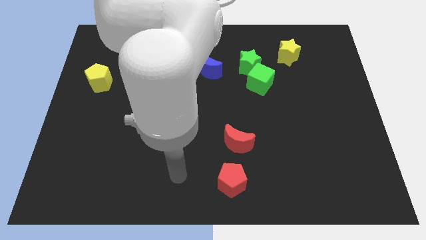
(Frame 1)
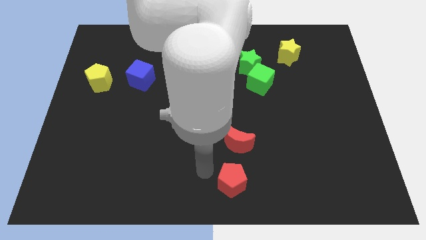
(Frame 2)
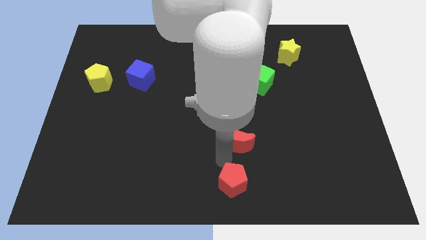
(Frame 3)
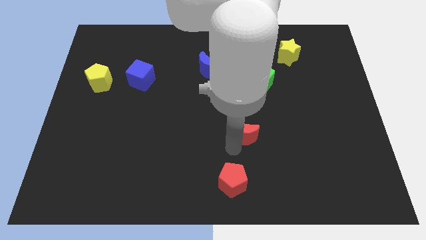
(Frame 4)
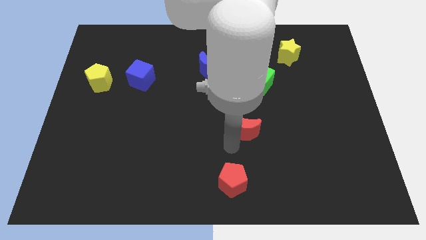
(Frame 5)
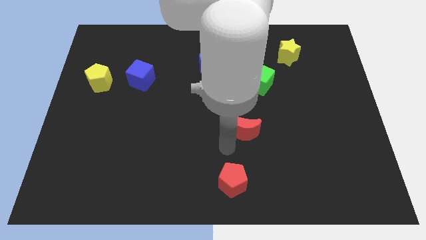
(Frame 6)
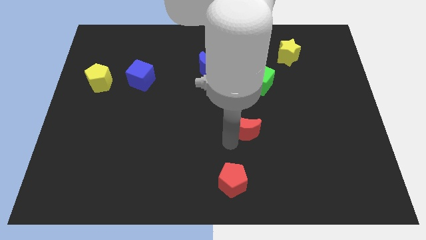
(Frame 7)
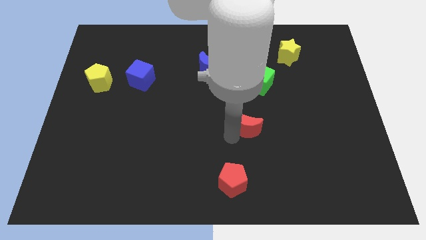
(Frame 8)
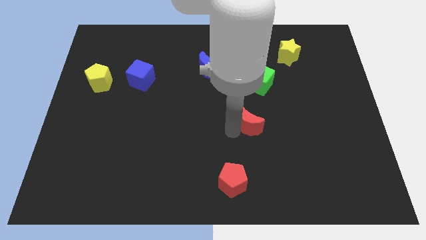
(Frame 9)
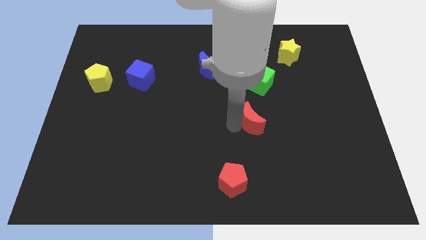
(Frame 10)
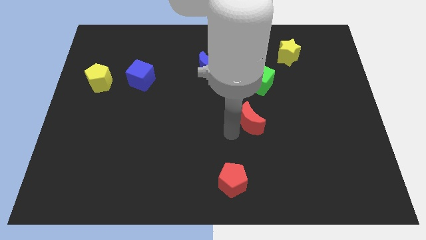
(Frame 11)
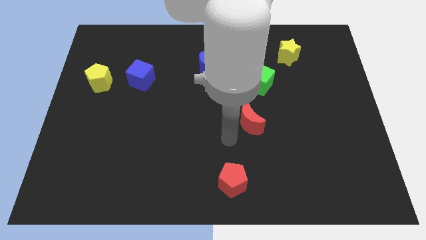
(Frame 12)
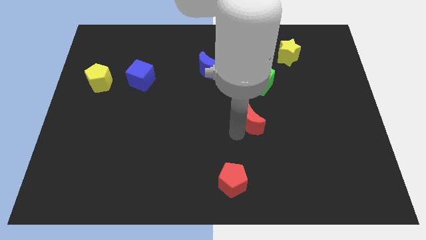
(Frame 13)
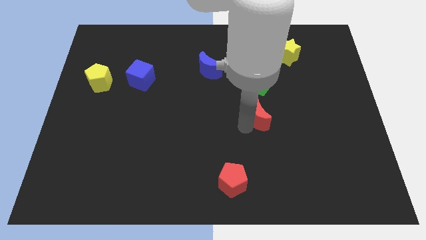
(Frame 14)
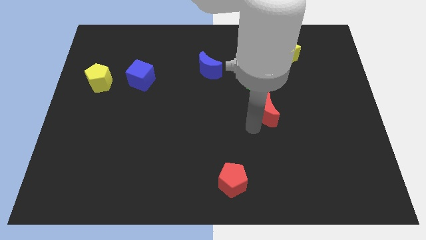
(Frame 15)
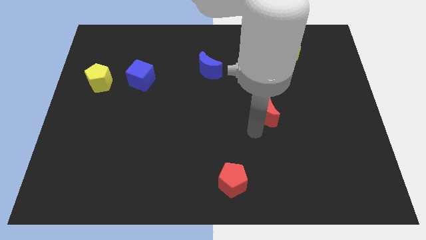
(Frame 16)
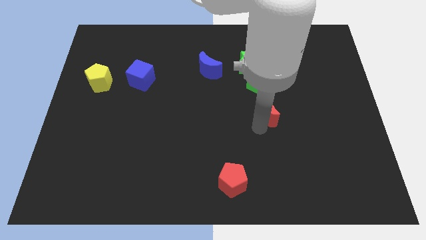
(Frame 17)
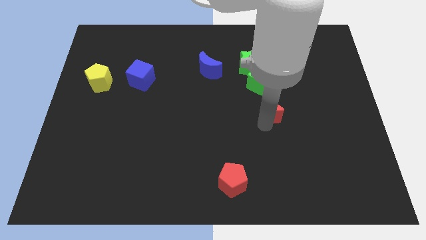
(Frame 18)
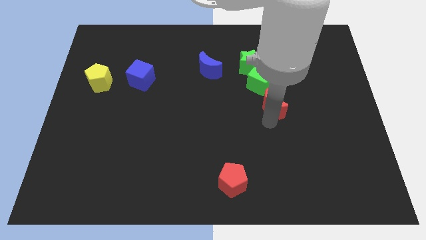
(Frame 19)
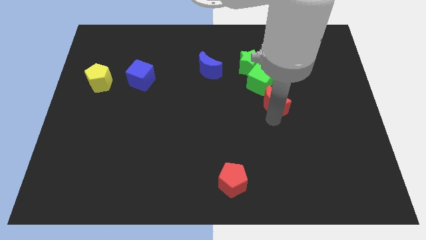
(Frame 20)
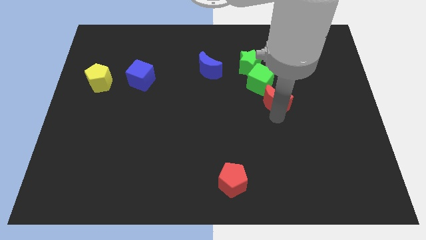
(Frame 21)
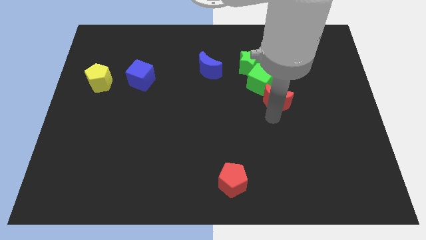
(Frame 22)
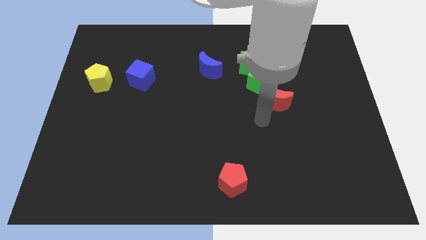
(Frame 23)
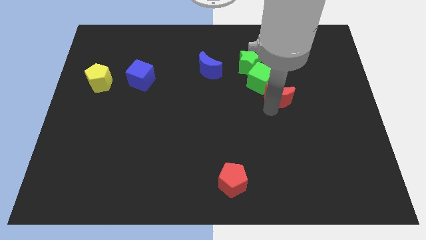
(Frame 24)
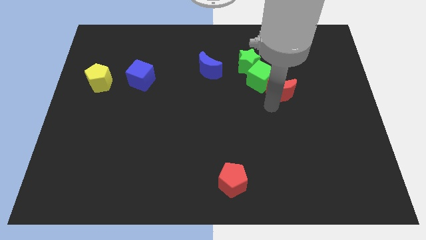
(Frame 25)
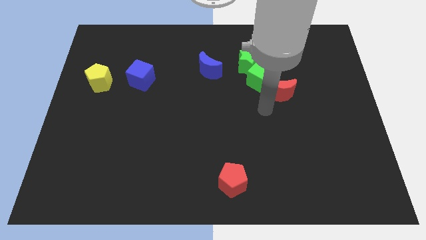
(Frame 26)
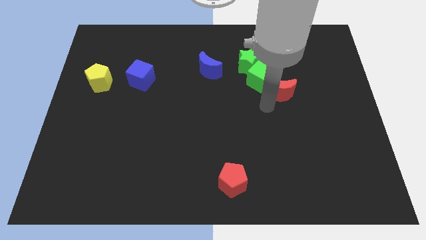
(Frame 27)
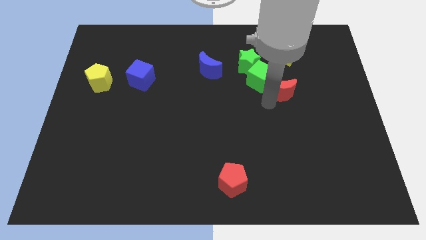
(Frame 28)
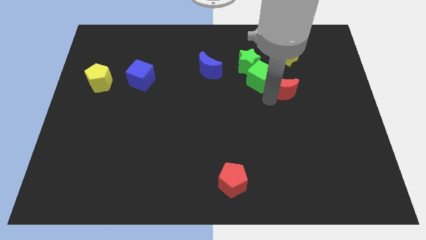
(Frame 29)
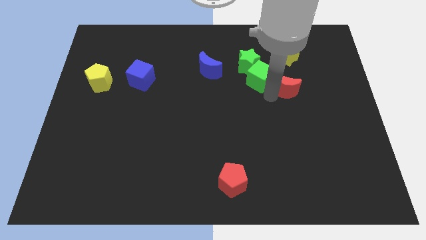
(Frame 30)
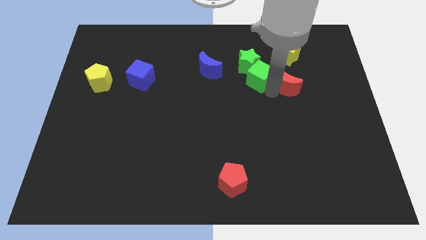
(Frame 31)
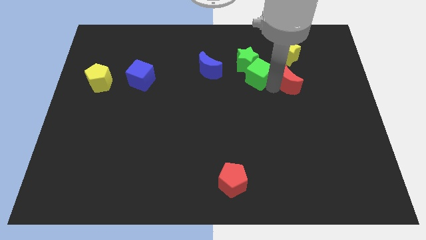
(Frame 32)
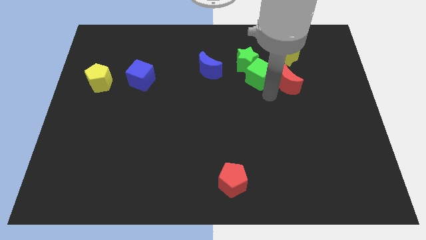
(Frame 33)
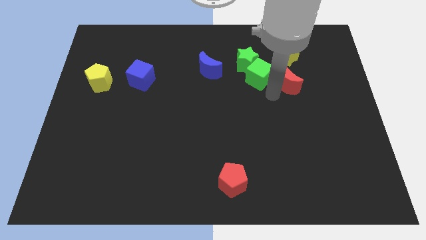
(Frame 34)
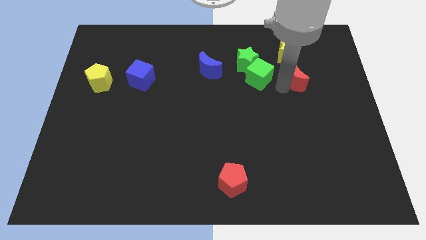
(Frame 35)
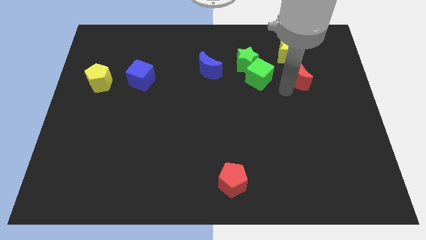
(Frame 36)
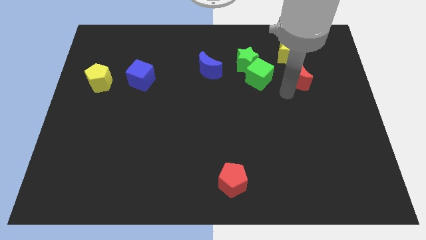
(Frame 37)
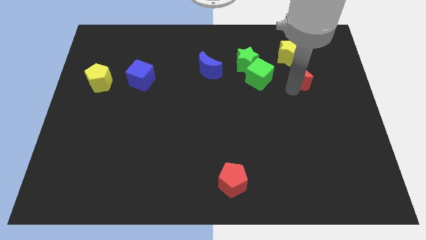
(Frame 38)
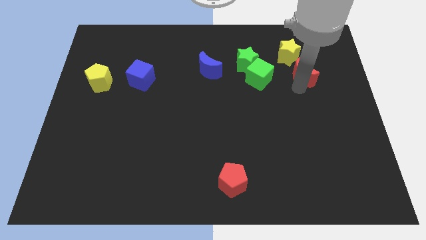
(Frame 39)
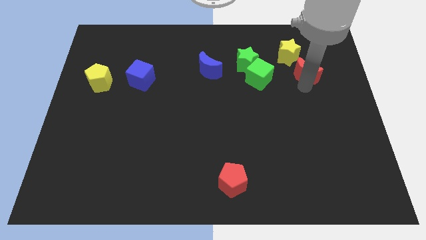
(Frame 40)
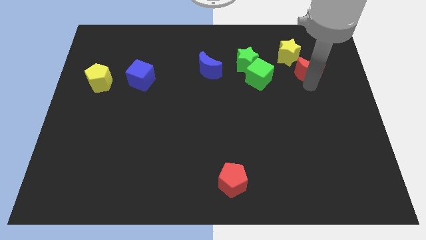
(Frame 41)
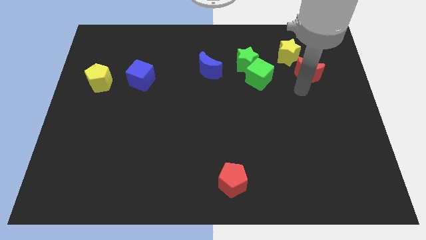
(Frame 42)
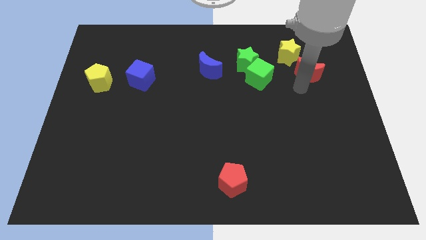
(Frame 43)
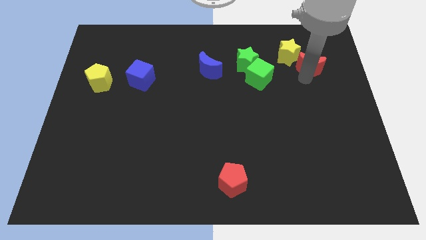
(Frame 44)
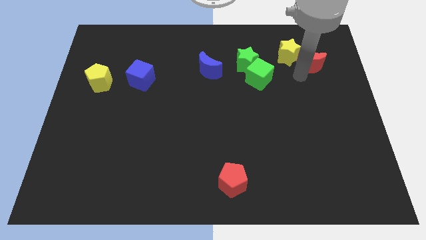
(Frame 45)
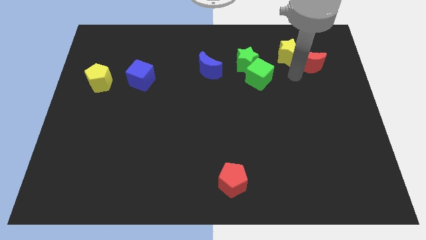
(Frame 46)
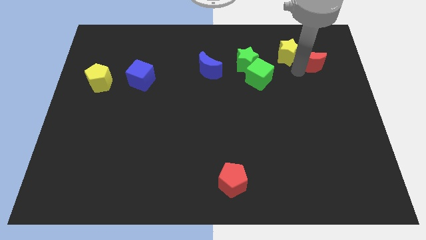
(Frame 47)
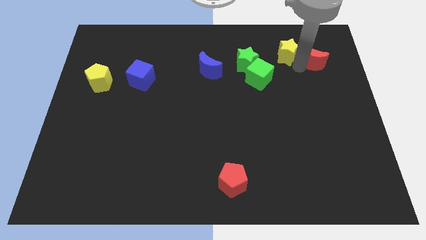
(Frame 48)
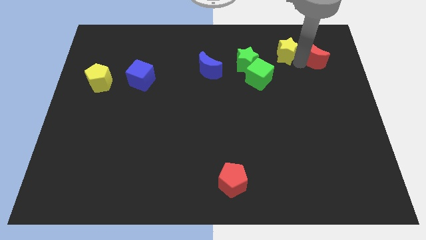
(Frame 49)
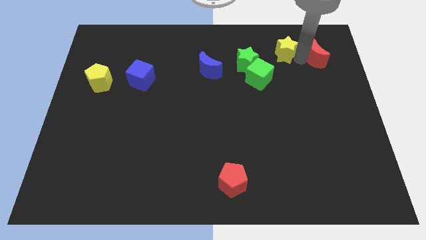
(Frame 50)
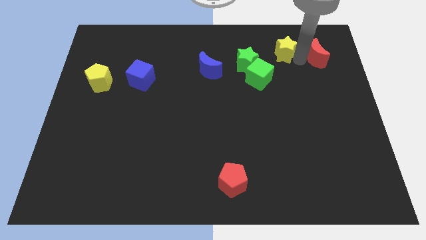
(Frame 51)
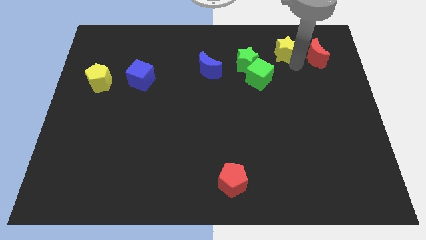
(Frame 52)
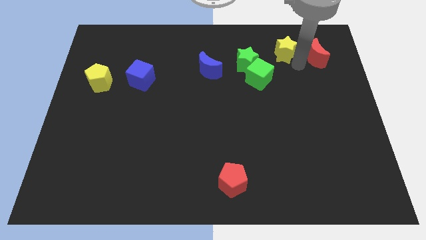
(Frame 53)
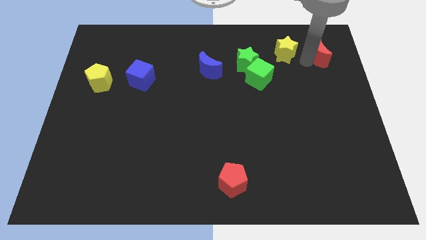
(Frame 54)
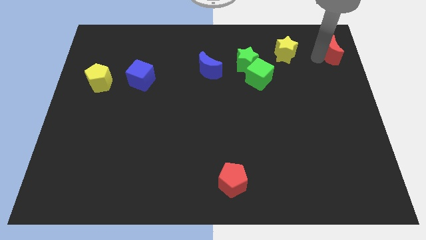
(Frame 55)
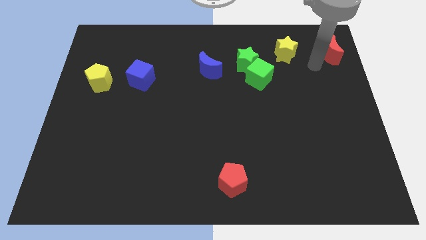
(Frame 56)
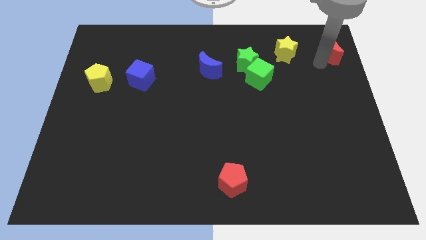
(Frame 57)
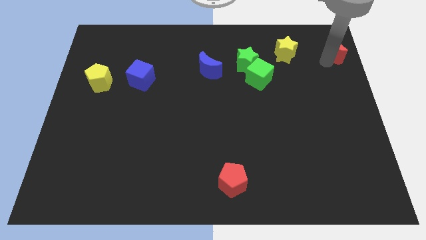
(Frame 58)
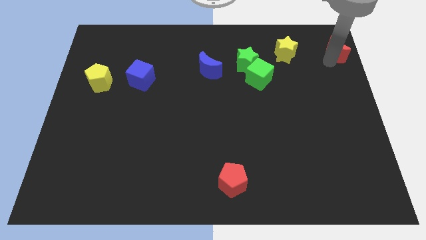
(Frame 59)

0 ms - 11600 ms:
put the red moon to the top right corner

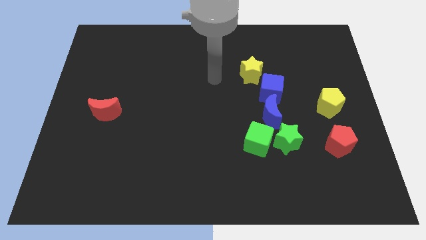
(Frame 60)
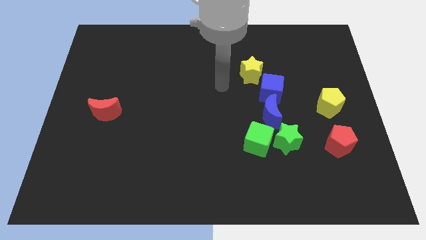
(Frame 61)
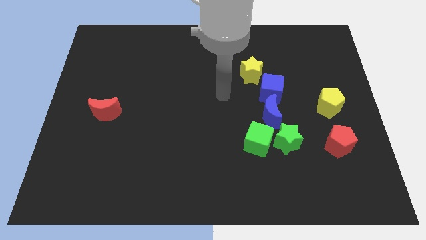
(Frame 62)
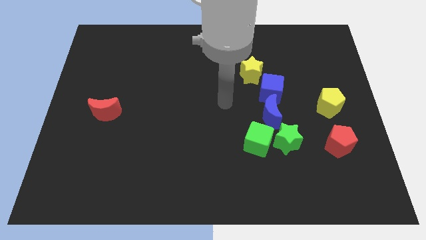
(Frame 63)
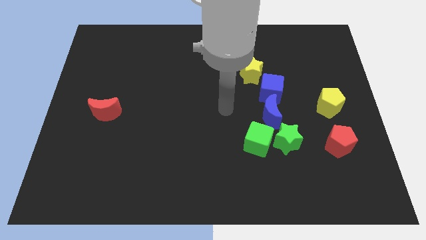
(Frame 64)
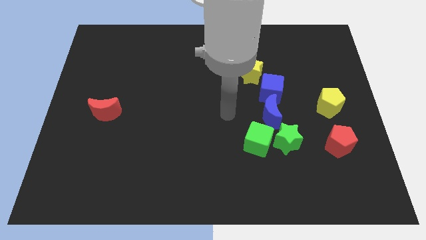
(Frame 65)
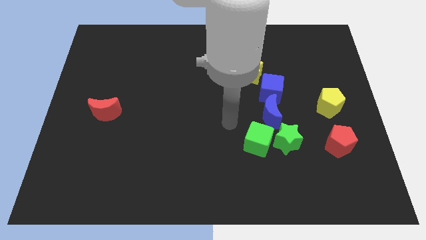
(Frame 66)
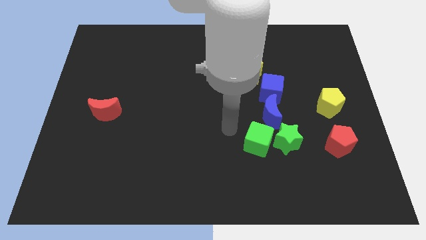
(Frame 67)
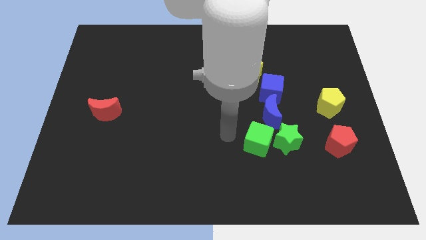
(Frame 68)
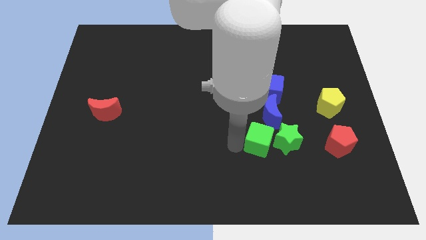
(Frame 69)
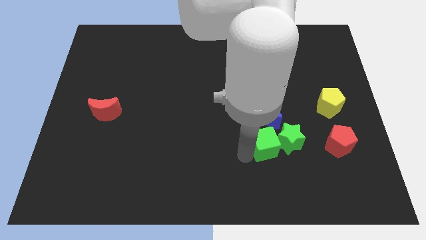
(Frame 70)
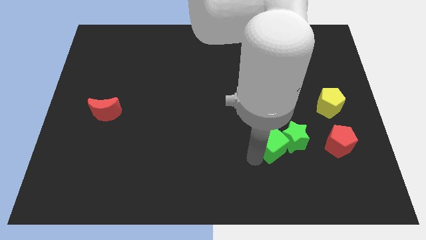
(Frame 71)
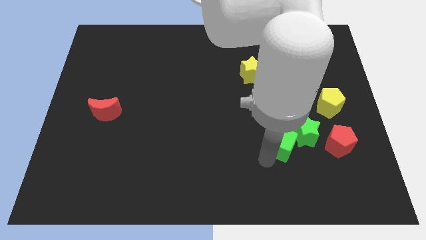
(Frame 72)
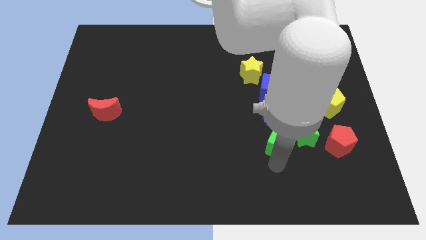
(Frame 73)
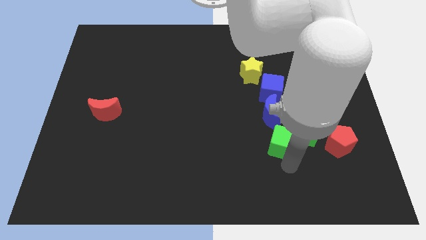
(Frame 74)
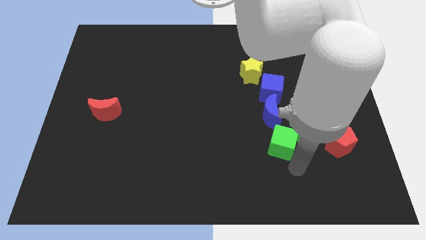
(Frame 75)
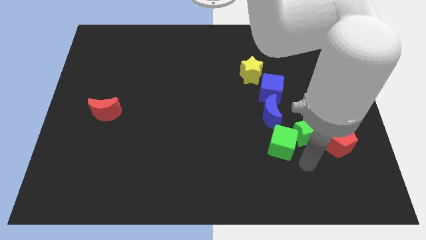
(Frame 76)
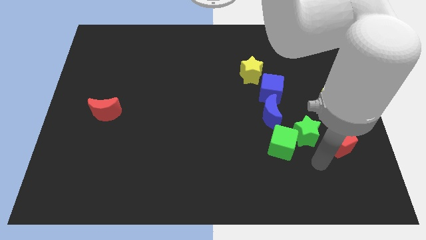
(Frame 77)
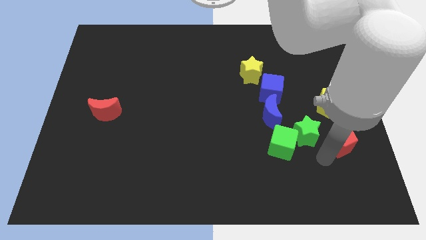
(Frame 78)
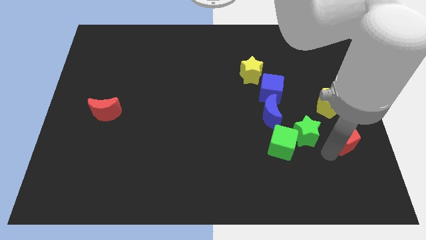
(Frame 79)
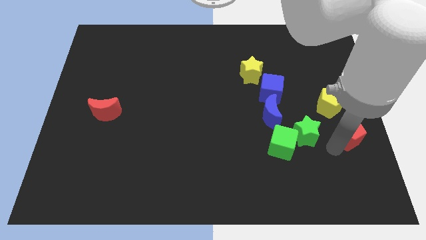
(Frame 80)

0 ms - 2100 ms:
slide the red pentagon to the right side
